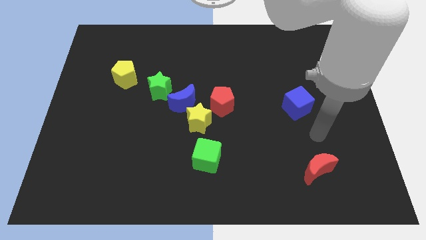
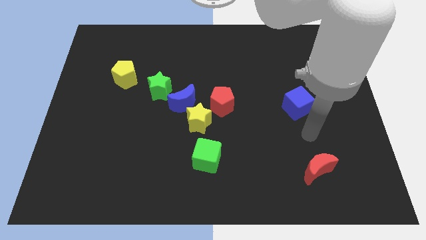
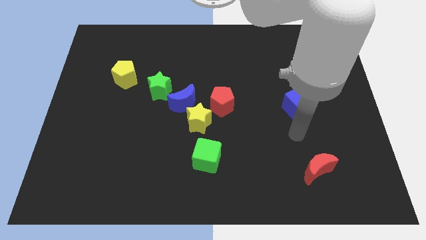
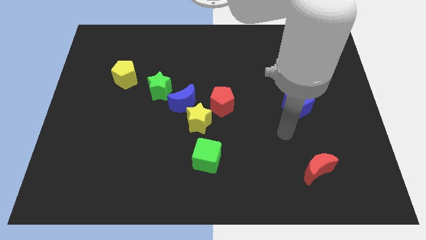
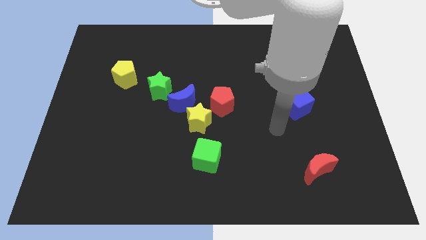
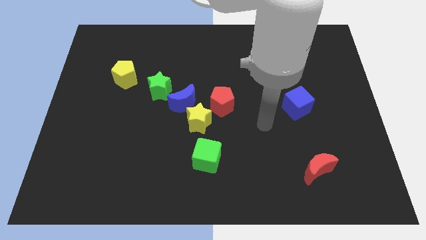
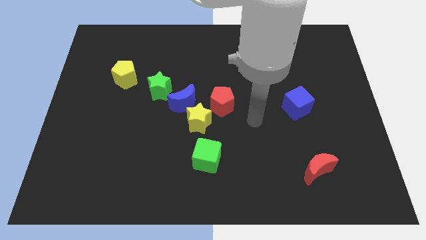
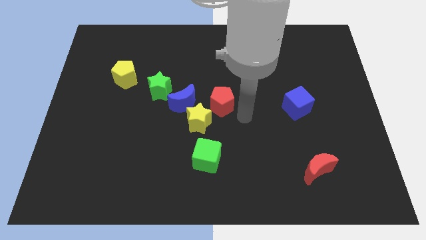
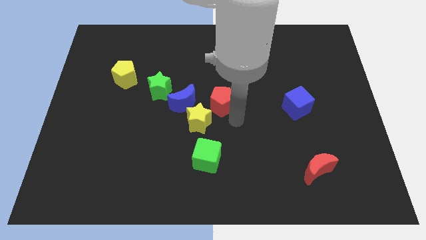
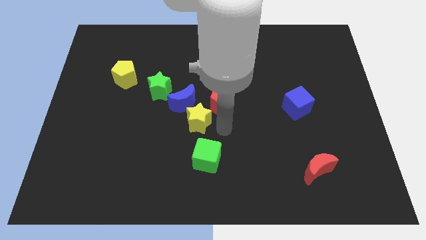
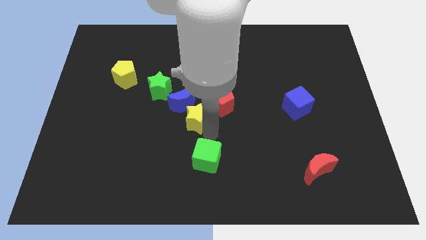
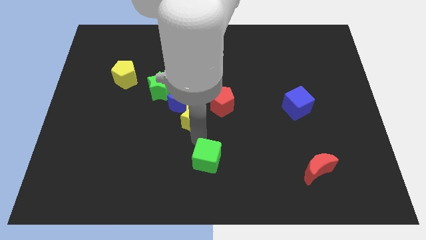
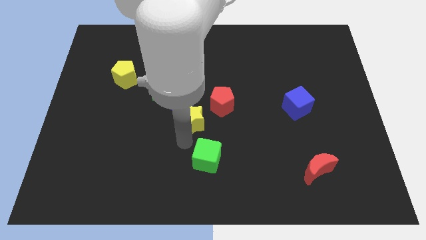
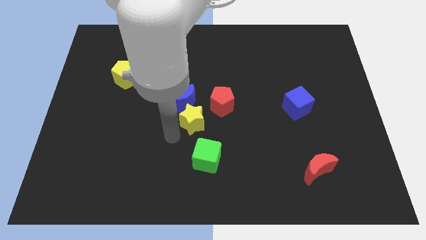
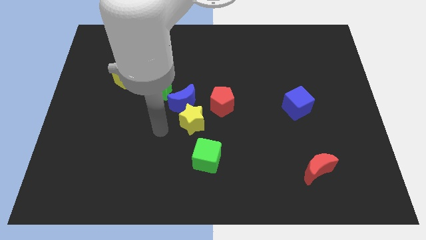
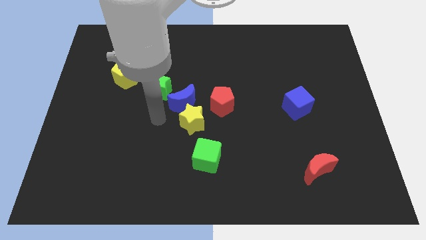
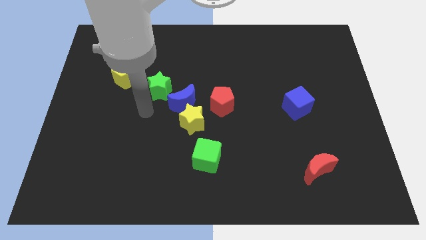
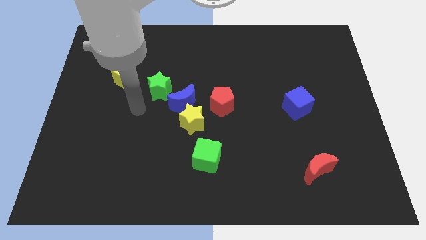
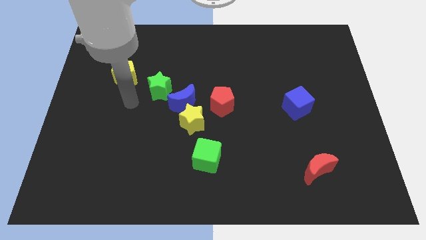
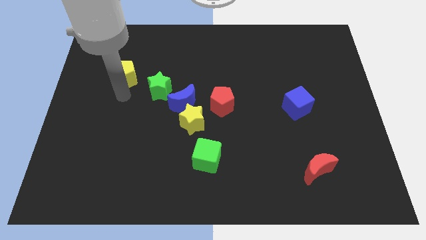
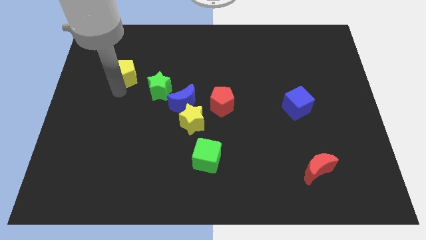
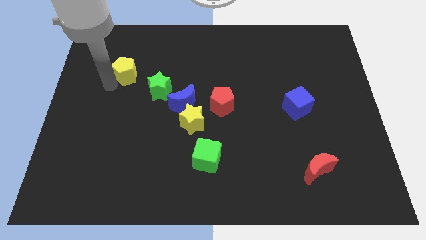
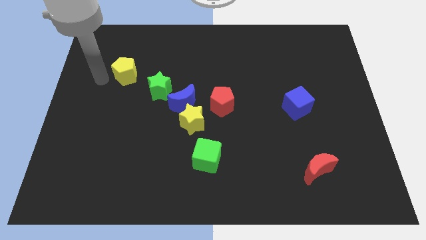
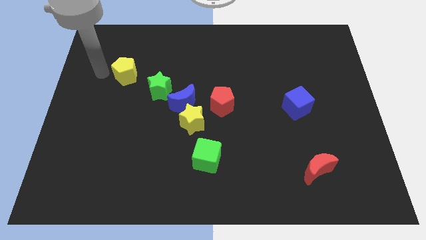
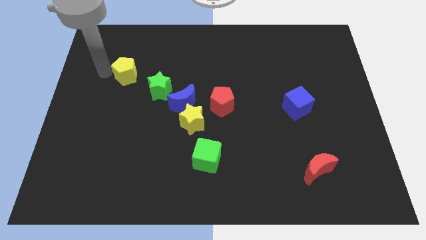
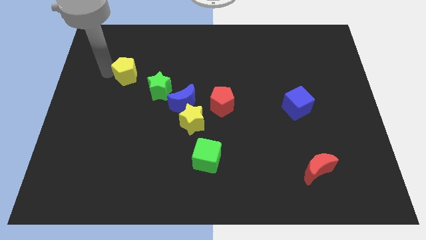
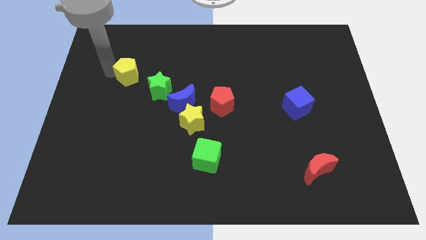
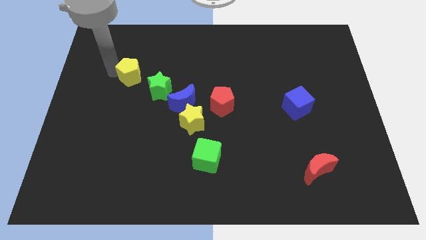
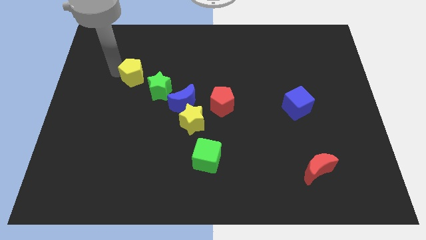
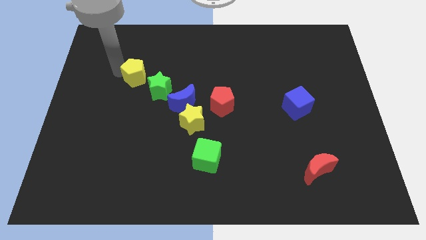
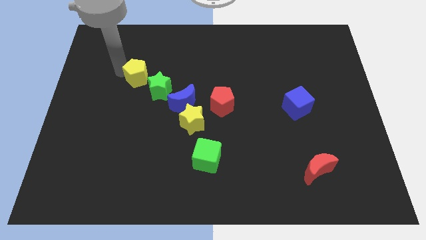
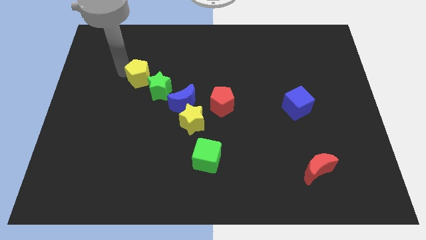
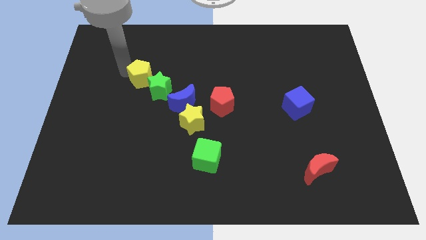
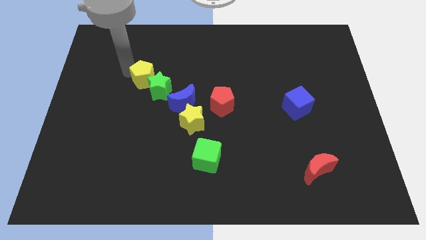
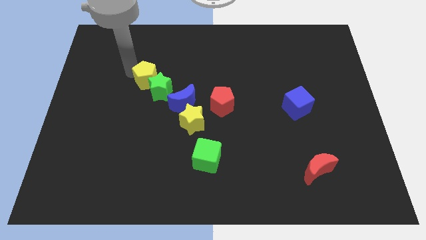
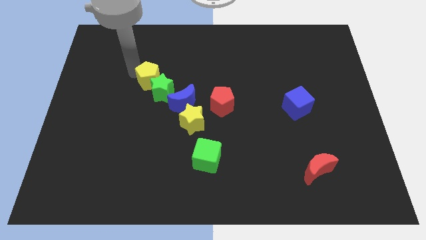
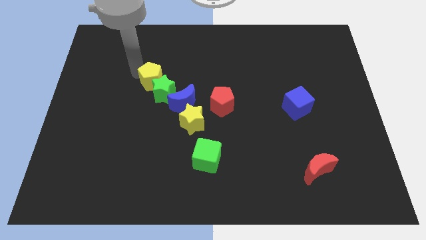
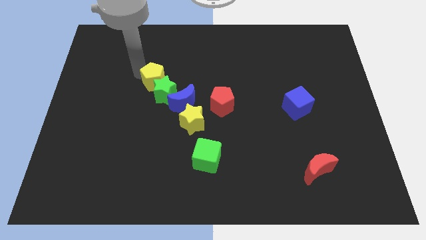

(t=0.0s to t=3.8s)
slightly push the yellow pentagon right

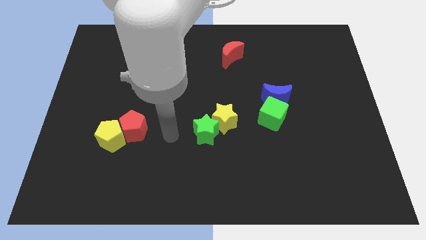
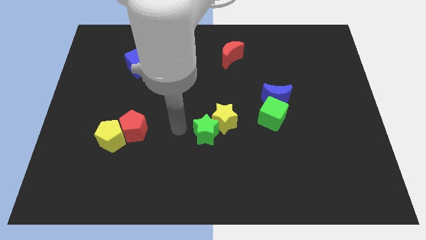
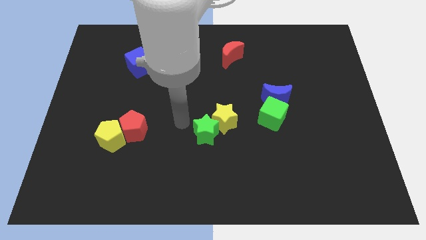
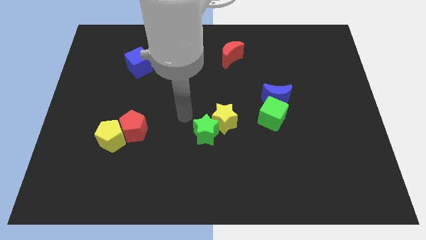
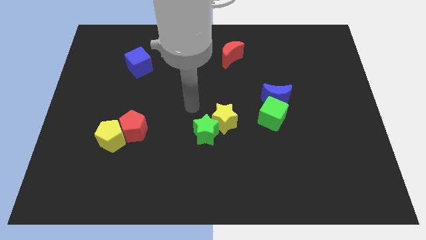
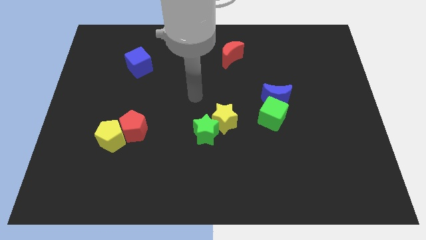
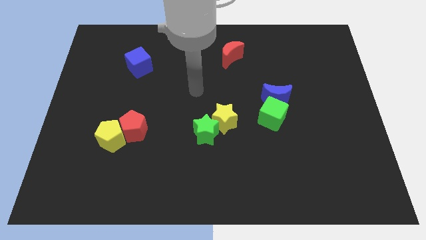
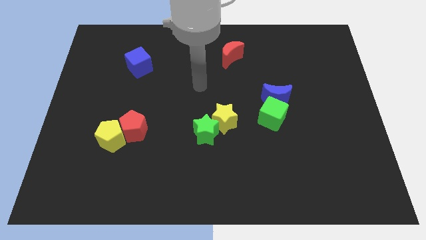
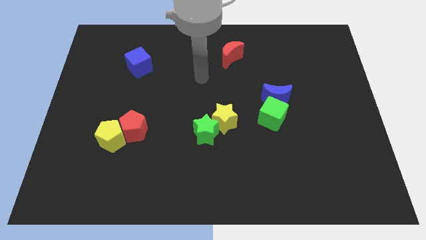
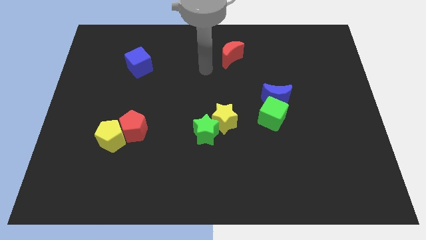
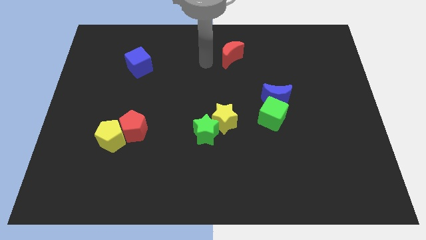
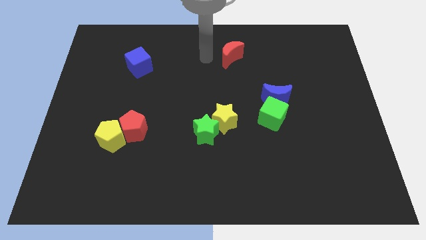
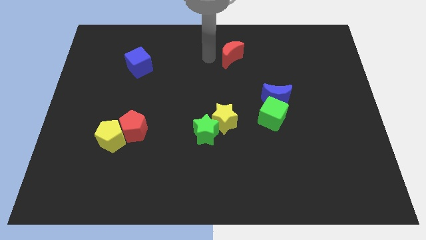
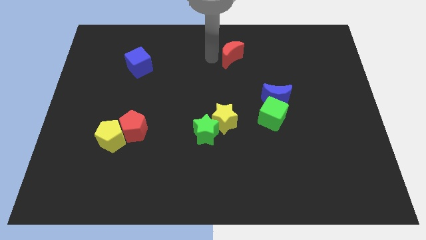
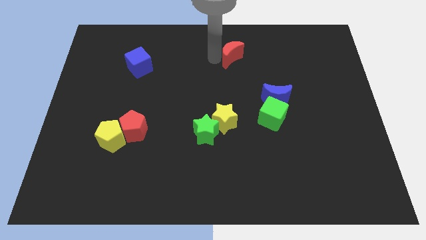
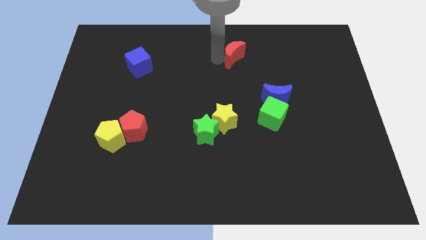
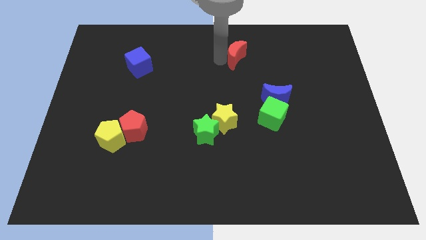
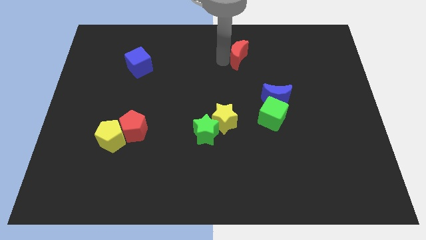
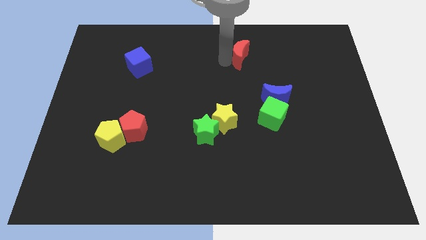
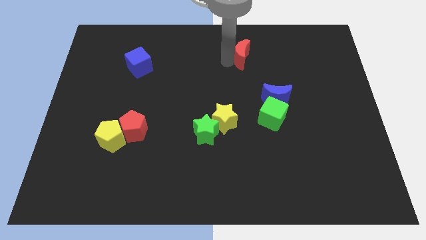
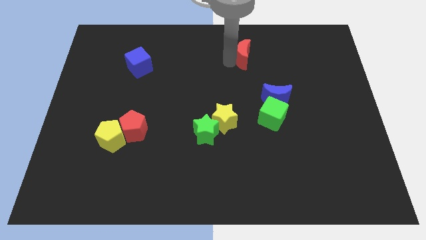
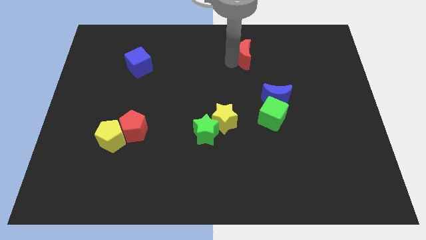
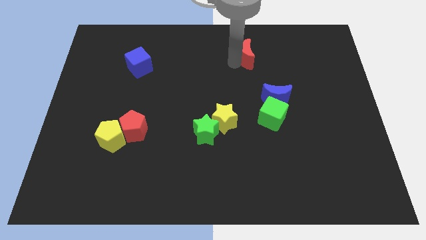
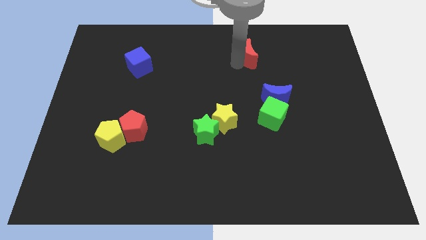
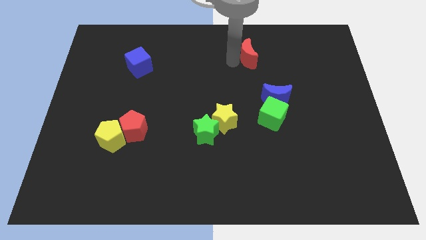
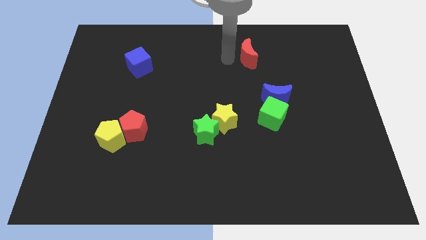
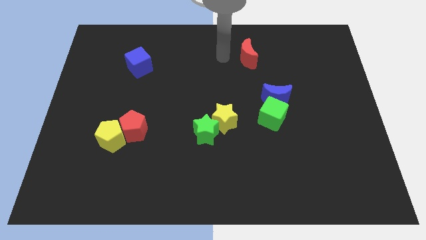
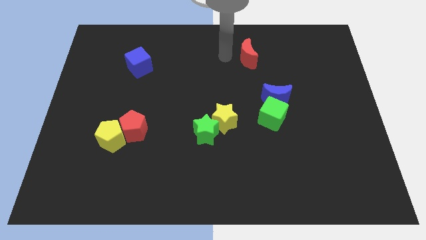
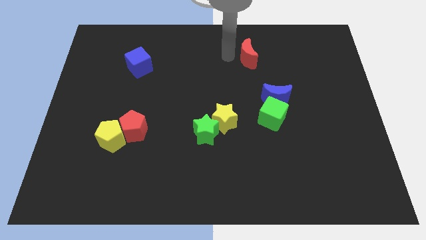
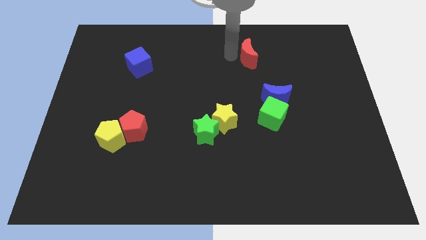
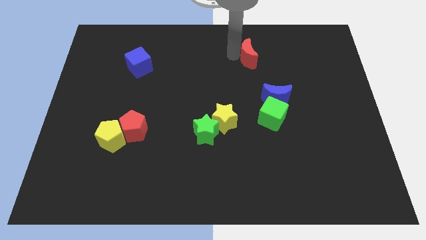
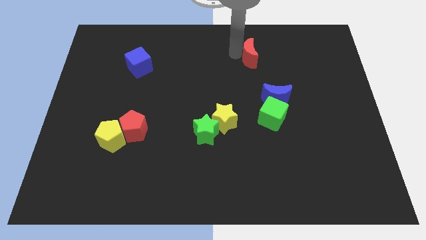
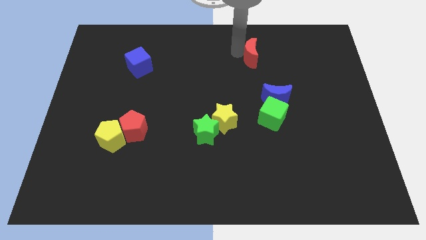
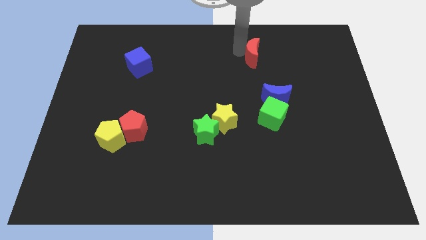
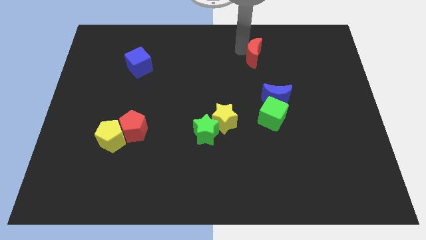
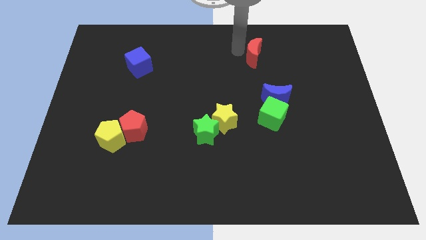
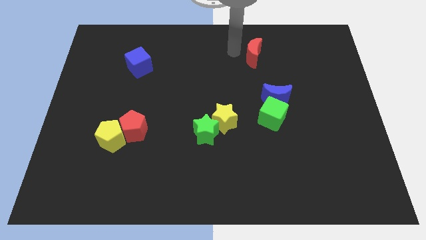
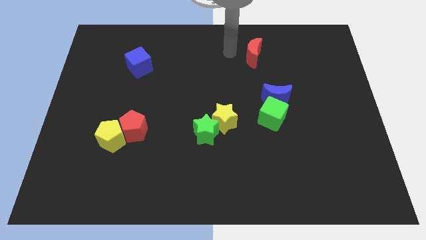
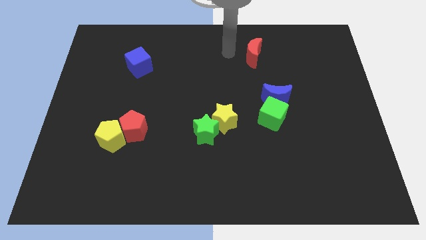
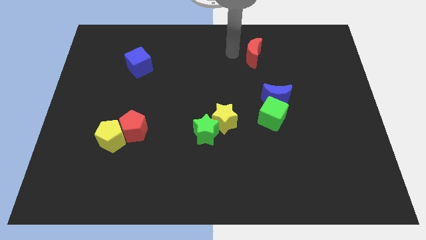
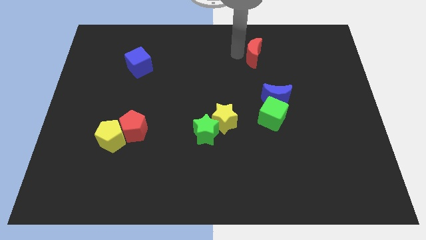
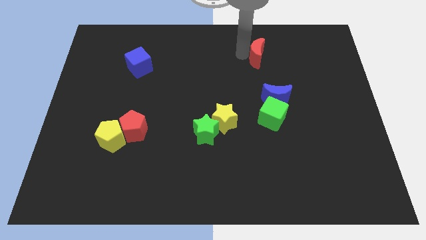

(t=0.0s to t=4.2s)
slide the red moon to the right a bit

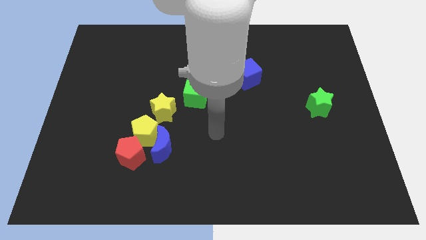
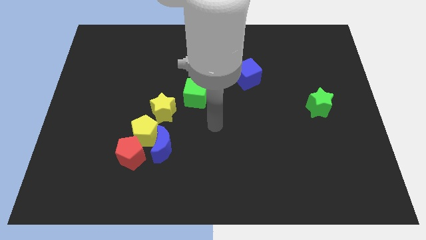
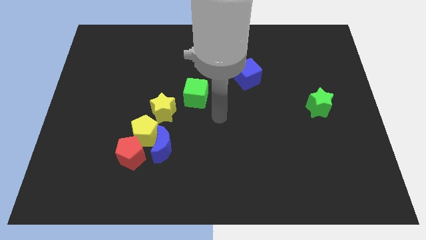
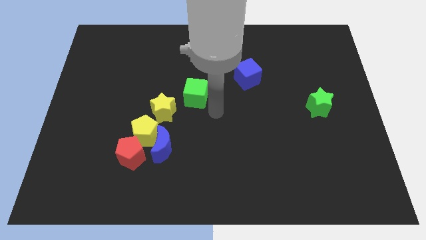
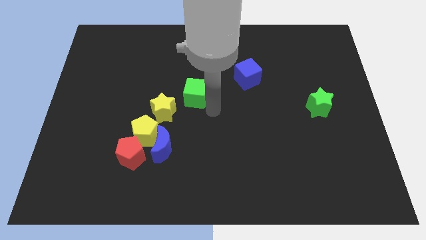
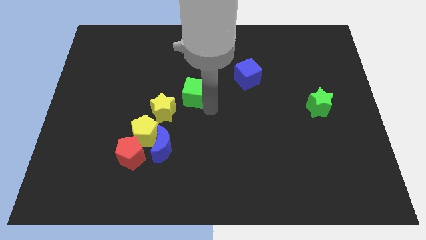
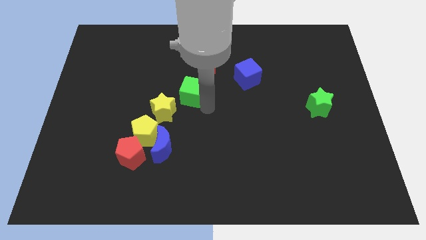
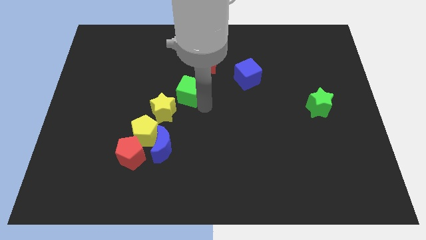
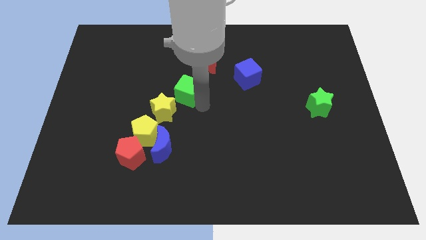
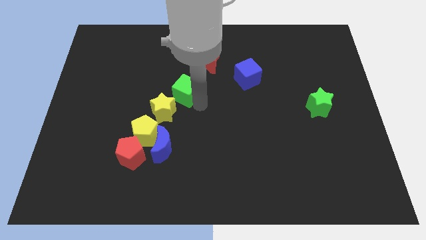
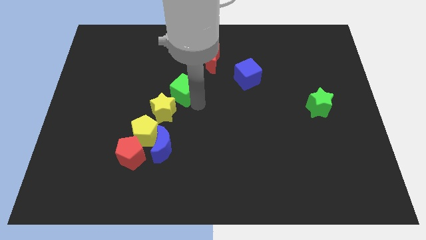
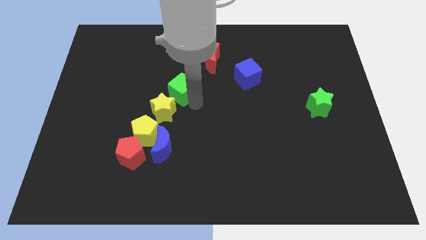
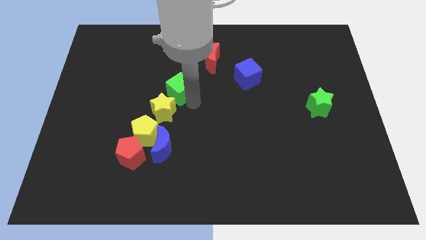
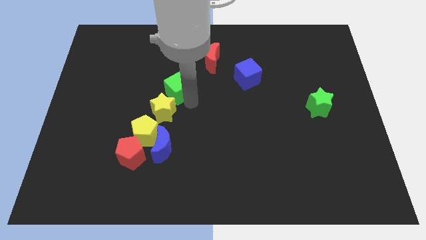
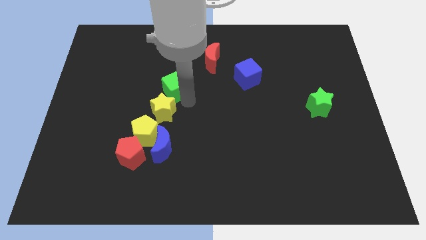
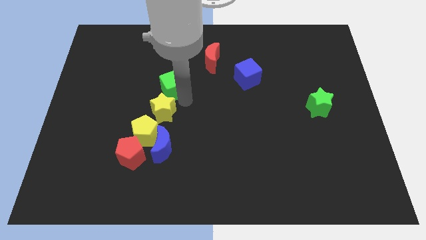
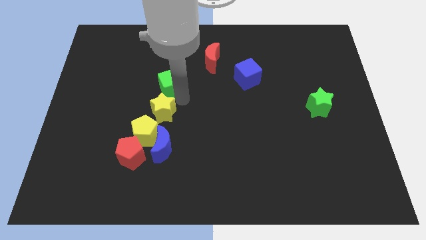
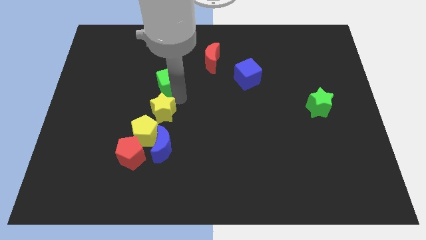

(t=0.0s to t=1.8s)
move the green cube diagonally upwards and left a little
